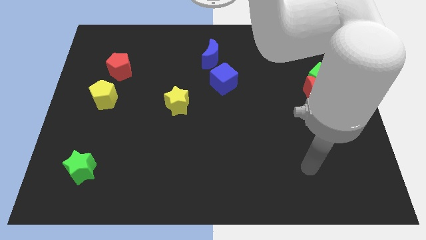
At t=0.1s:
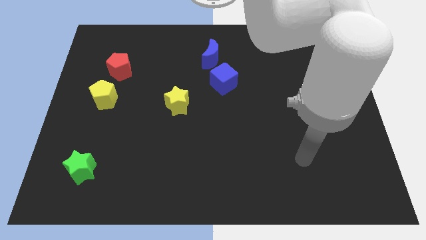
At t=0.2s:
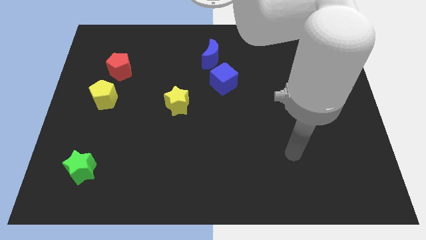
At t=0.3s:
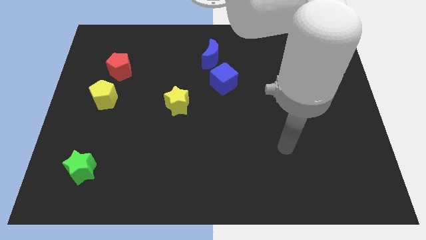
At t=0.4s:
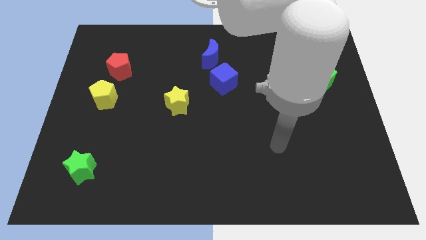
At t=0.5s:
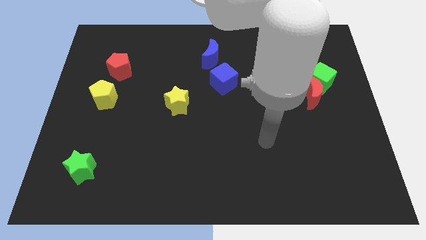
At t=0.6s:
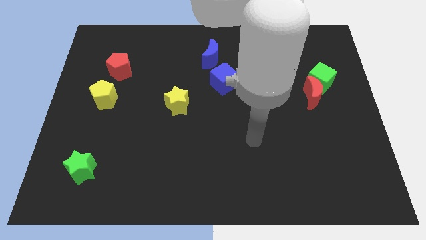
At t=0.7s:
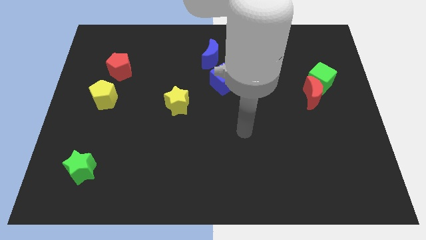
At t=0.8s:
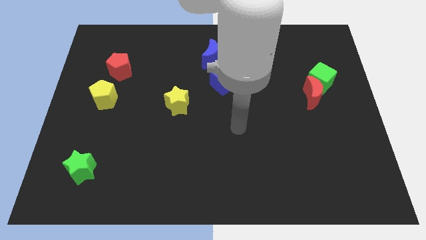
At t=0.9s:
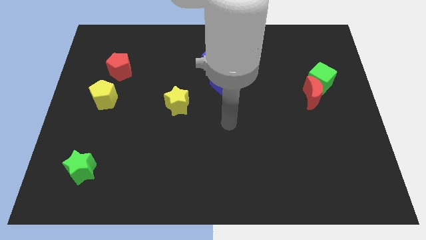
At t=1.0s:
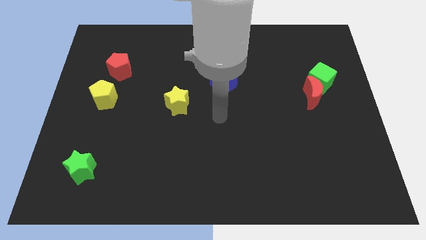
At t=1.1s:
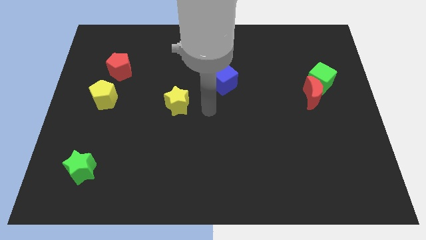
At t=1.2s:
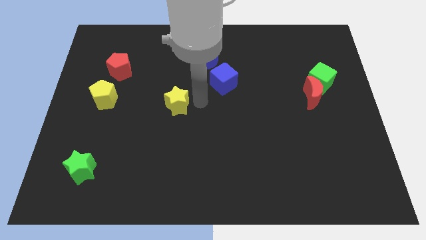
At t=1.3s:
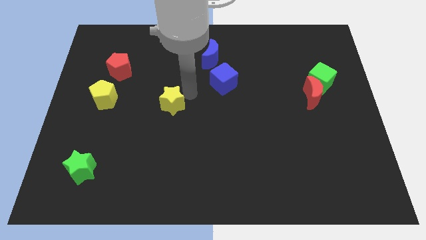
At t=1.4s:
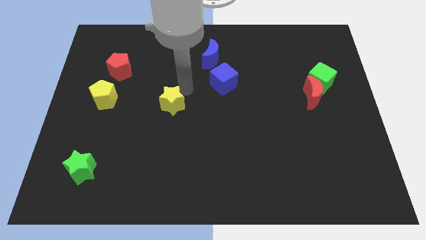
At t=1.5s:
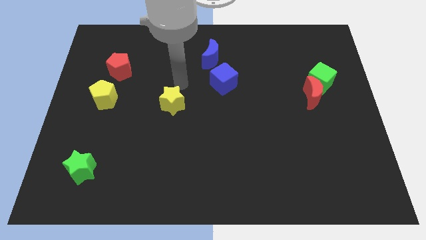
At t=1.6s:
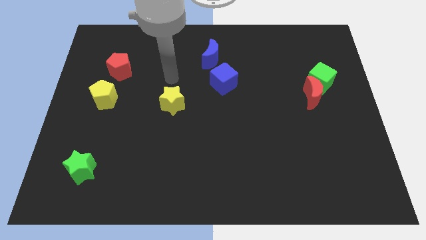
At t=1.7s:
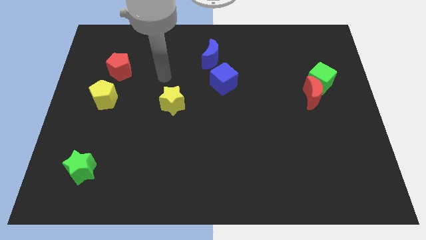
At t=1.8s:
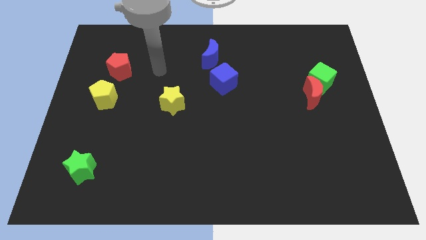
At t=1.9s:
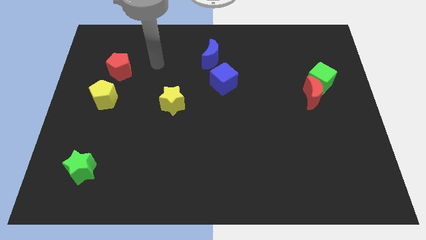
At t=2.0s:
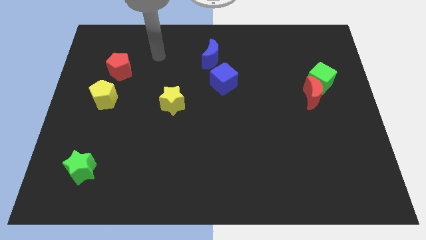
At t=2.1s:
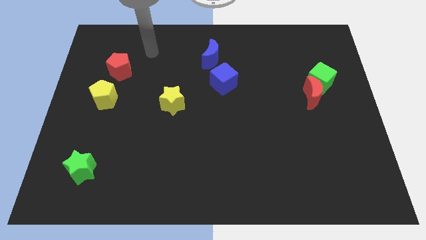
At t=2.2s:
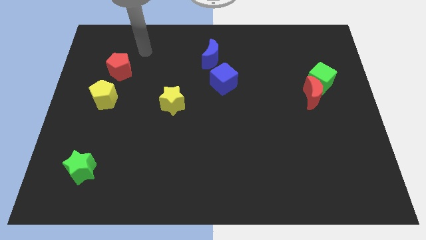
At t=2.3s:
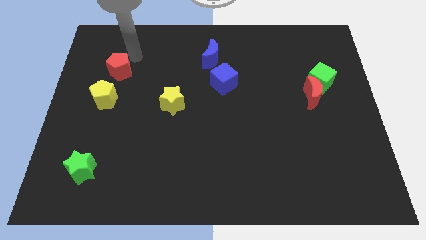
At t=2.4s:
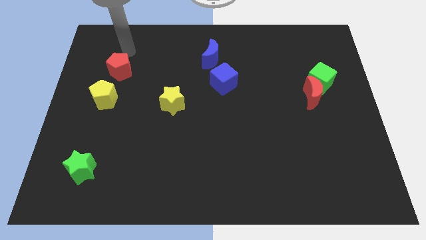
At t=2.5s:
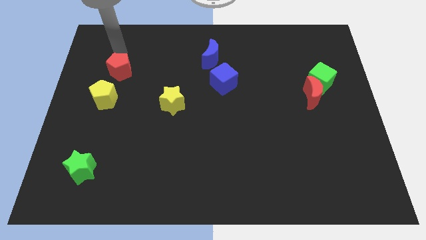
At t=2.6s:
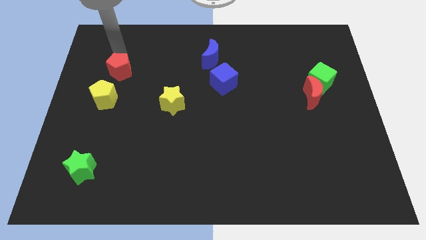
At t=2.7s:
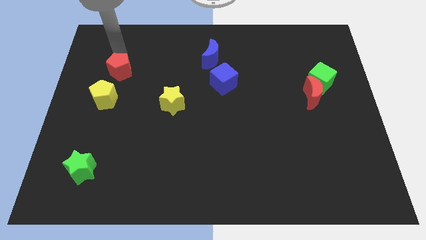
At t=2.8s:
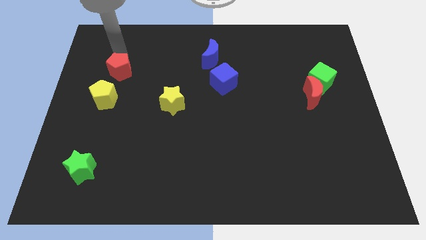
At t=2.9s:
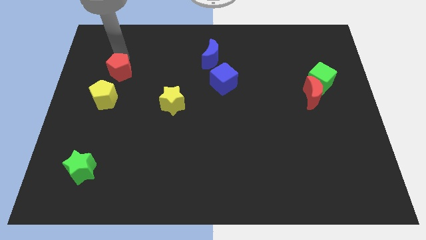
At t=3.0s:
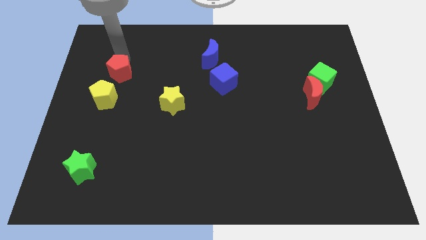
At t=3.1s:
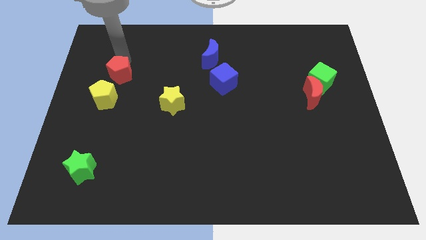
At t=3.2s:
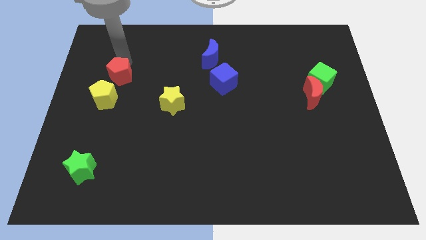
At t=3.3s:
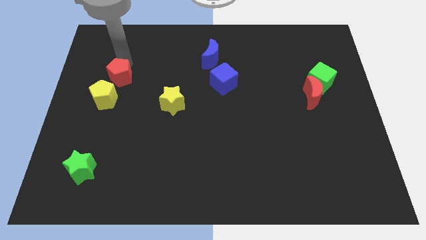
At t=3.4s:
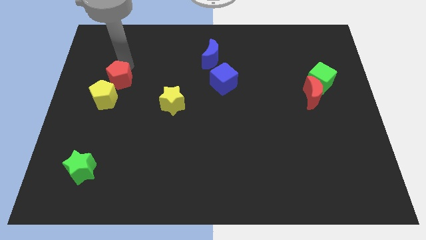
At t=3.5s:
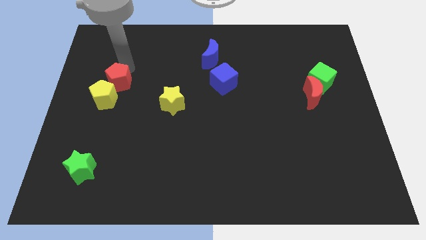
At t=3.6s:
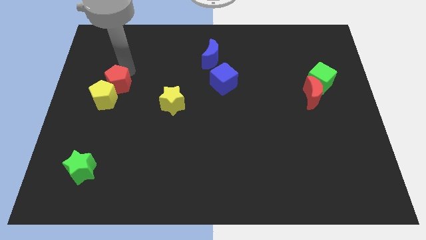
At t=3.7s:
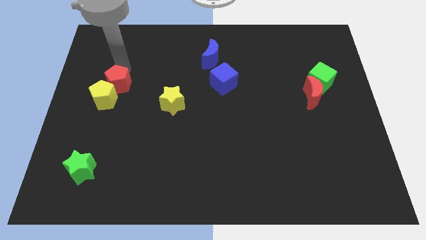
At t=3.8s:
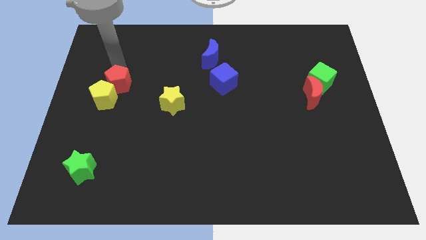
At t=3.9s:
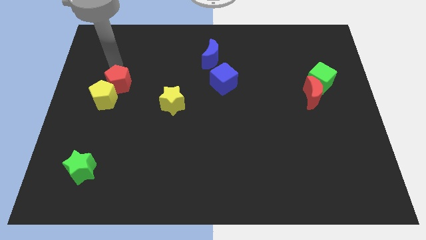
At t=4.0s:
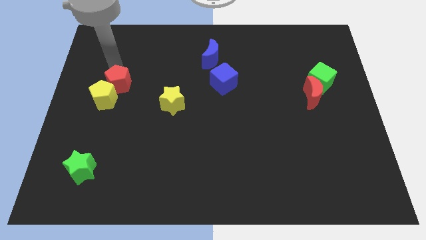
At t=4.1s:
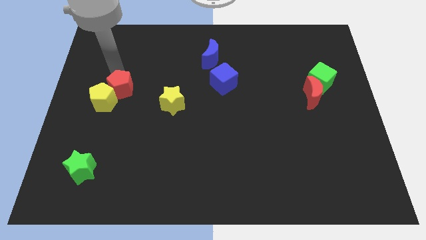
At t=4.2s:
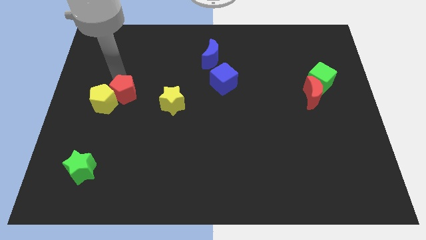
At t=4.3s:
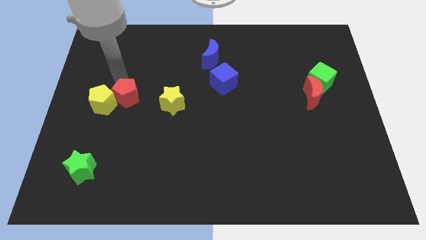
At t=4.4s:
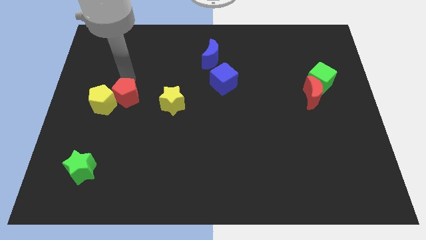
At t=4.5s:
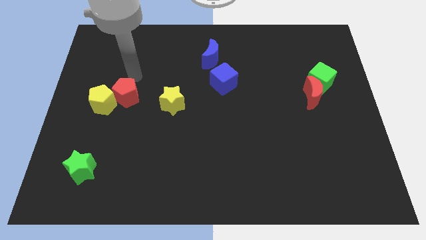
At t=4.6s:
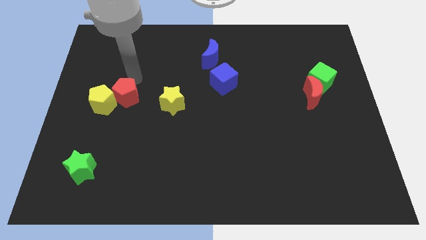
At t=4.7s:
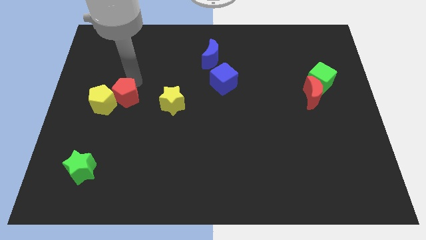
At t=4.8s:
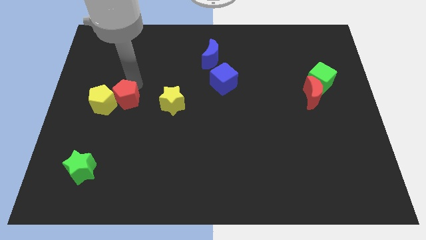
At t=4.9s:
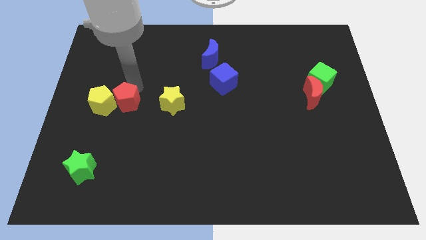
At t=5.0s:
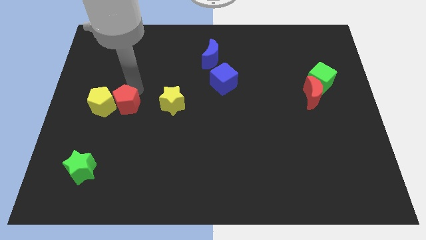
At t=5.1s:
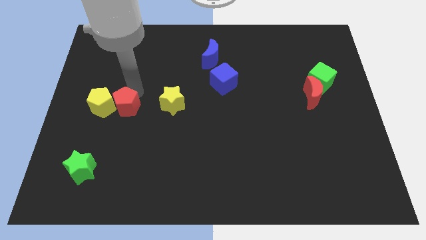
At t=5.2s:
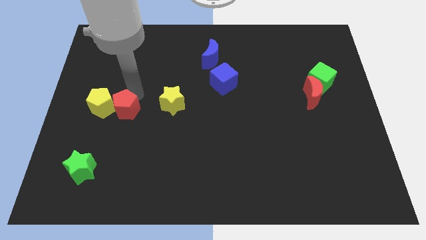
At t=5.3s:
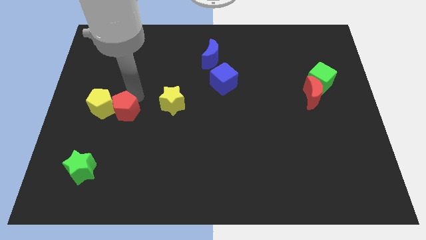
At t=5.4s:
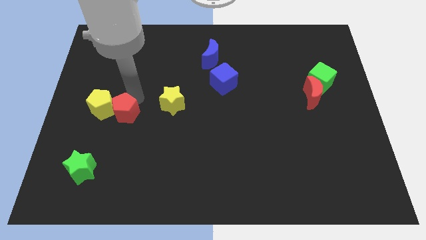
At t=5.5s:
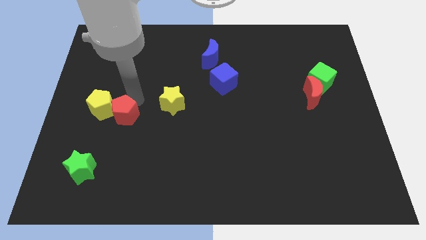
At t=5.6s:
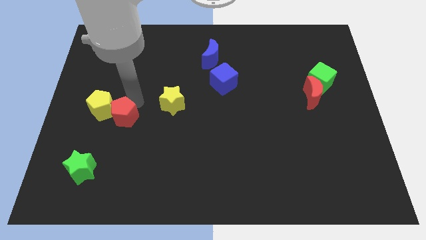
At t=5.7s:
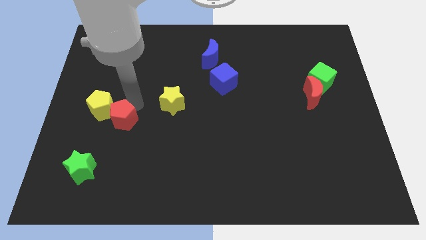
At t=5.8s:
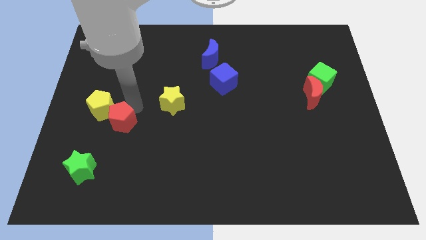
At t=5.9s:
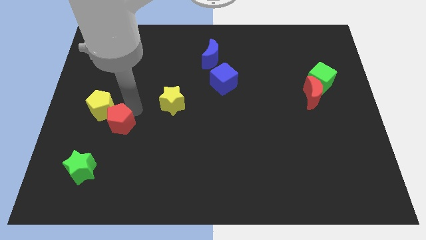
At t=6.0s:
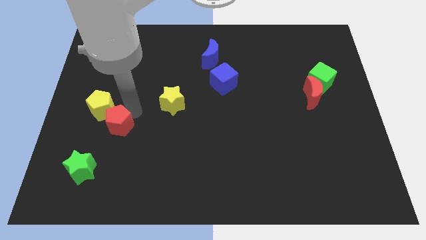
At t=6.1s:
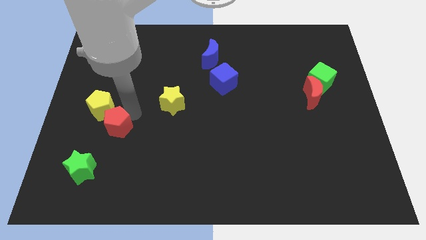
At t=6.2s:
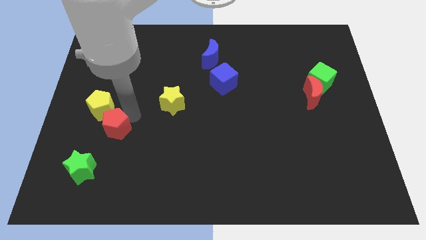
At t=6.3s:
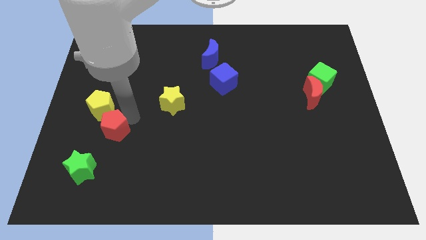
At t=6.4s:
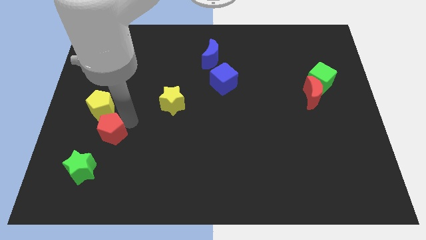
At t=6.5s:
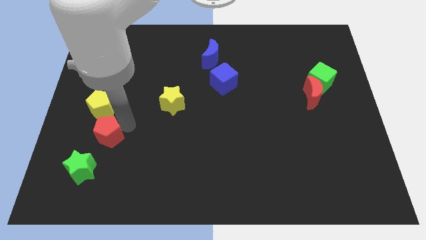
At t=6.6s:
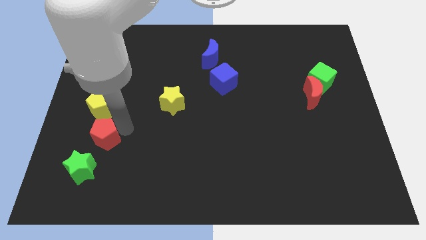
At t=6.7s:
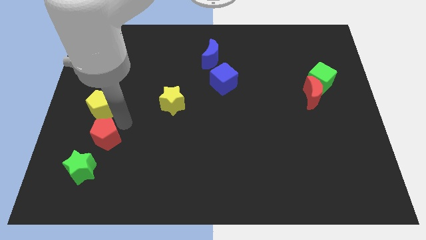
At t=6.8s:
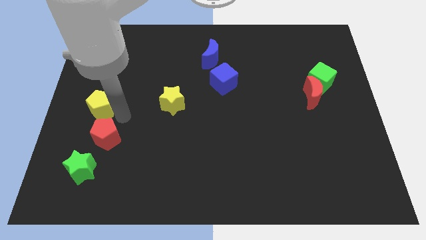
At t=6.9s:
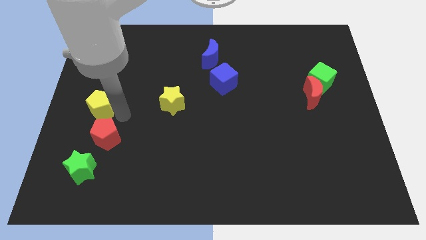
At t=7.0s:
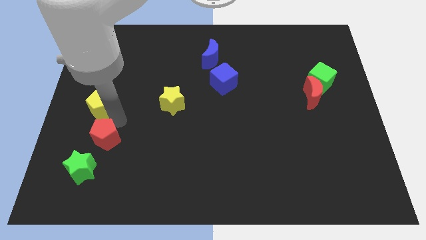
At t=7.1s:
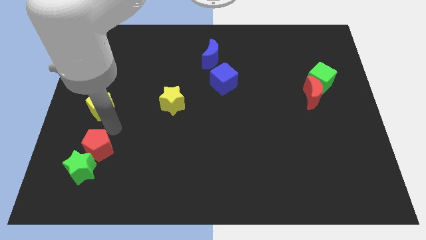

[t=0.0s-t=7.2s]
push the red pentagon close to the green star

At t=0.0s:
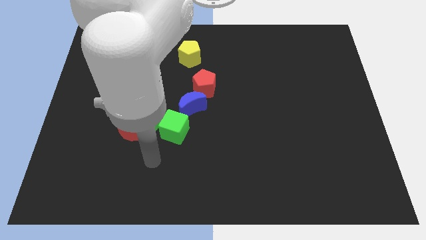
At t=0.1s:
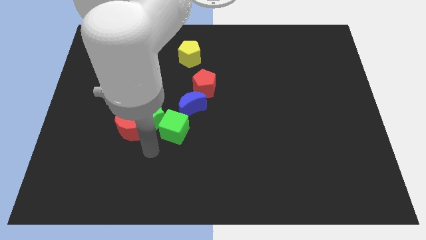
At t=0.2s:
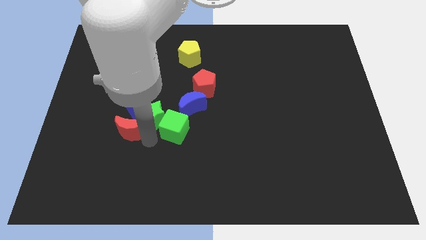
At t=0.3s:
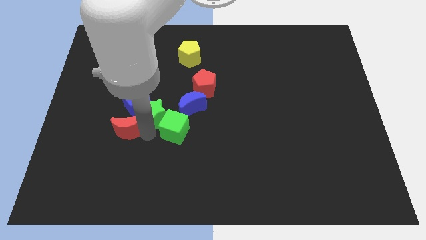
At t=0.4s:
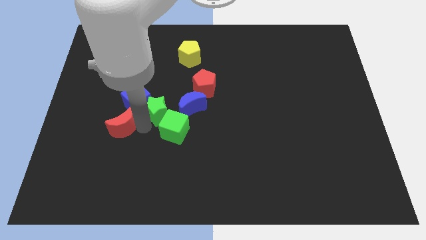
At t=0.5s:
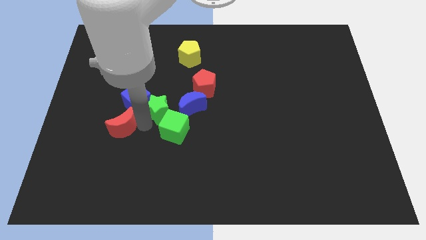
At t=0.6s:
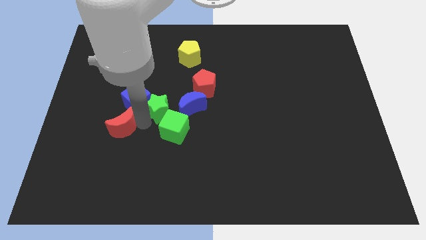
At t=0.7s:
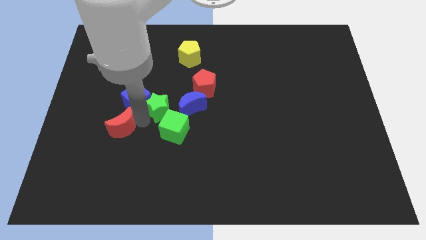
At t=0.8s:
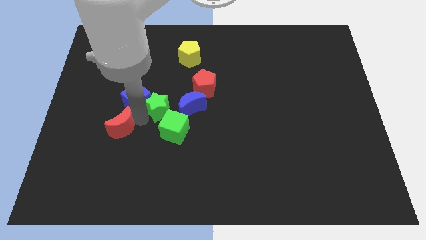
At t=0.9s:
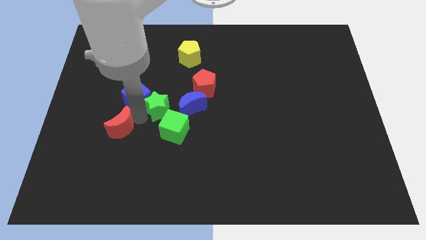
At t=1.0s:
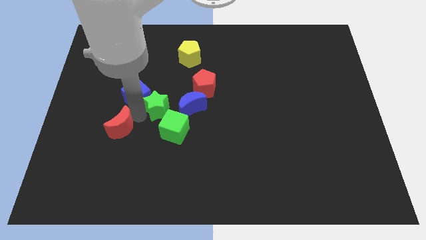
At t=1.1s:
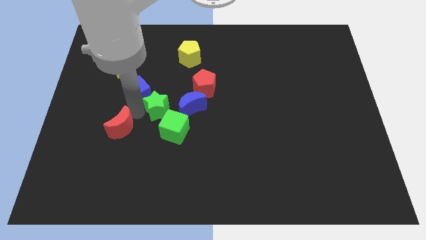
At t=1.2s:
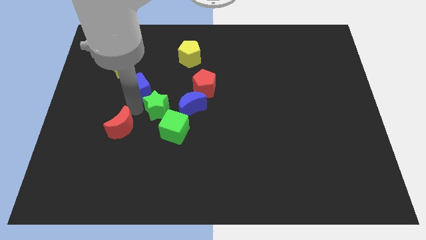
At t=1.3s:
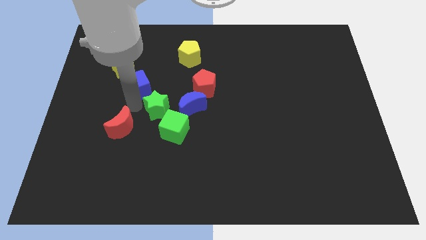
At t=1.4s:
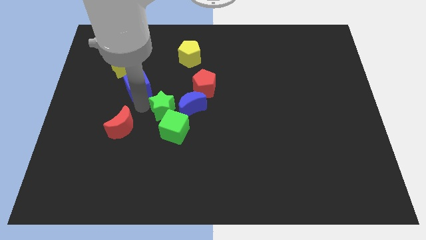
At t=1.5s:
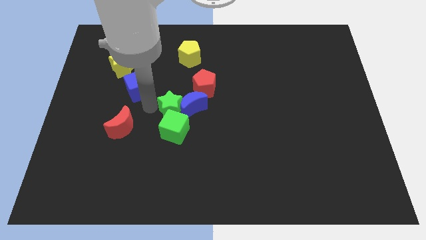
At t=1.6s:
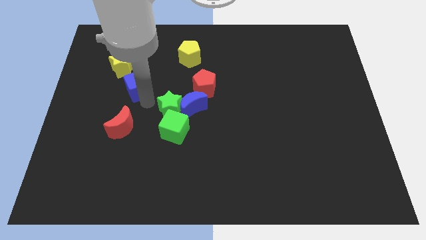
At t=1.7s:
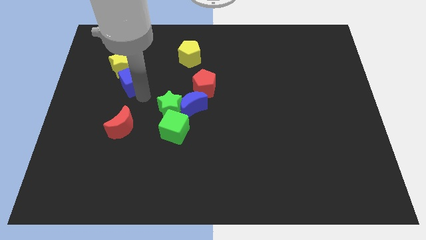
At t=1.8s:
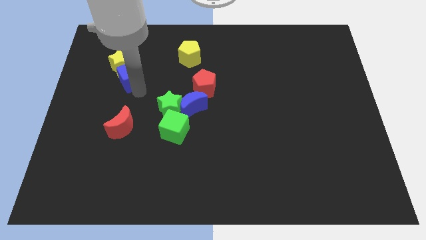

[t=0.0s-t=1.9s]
put the blue cube close to the yellow star
